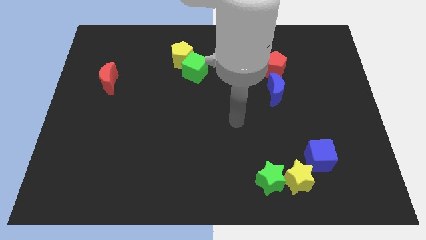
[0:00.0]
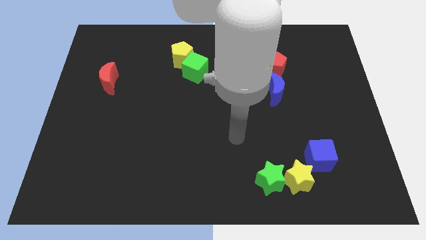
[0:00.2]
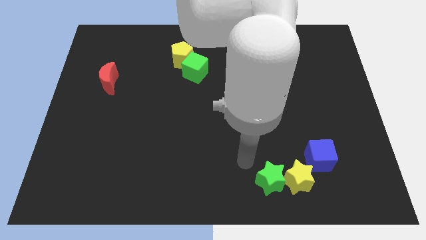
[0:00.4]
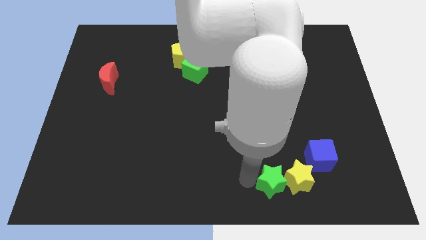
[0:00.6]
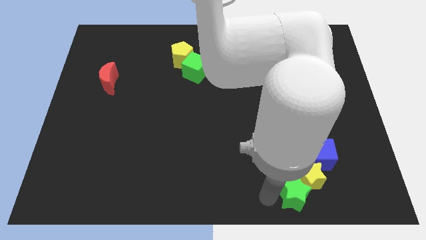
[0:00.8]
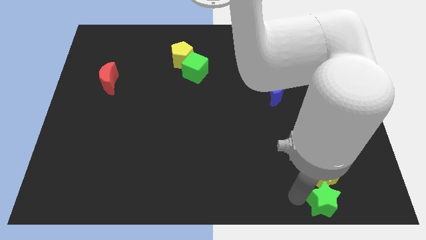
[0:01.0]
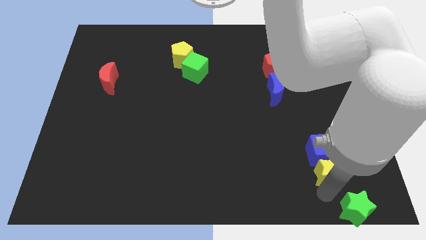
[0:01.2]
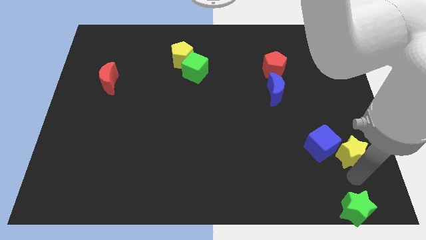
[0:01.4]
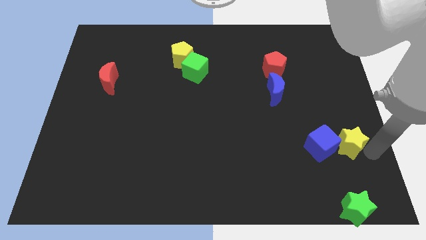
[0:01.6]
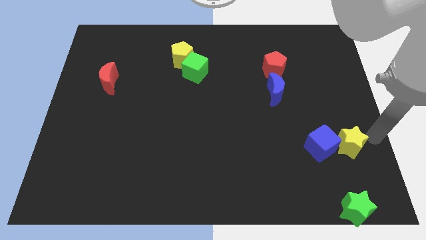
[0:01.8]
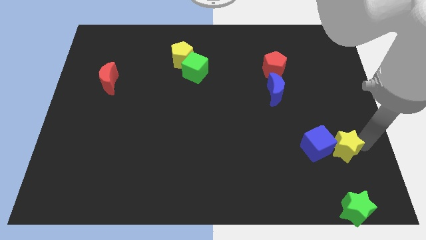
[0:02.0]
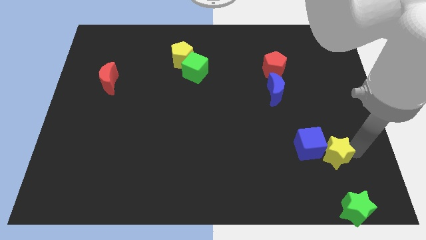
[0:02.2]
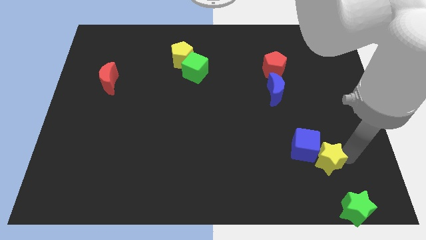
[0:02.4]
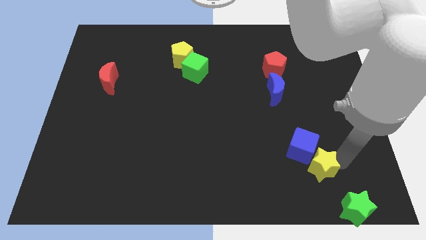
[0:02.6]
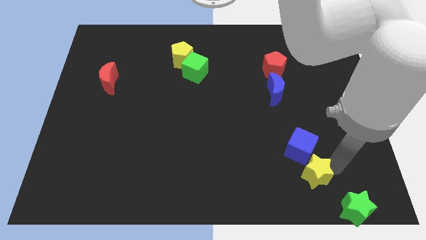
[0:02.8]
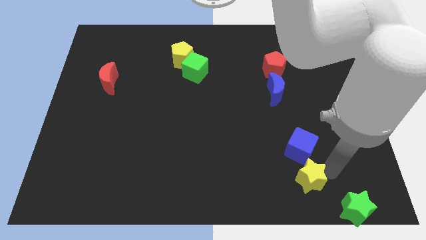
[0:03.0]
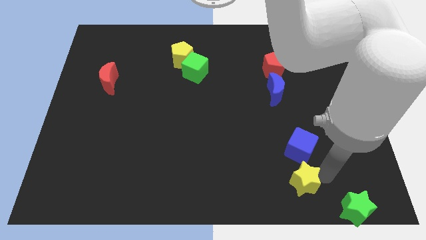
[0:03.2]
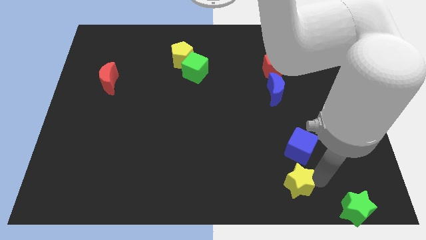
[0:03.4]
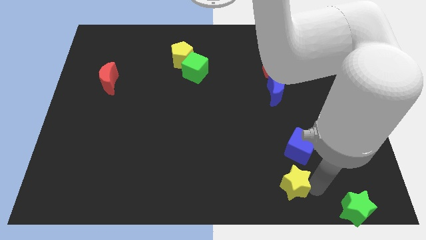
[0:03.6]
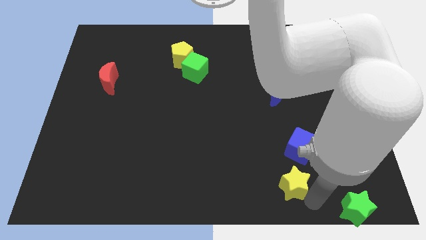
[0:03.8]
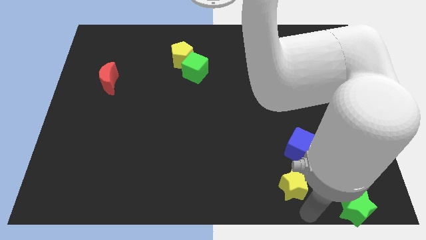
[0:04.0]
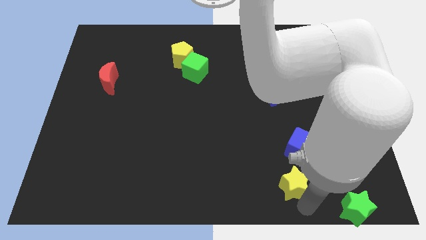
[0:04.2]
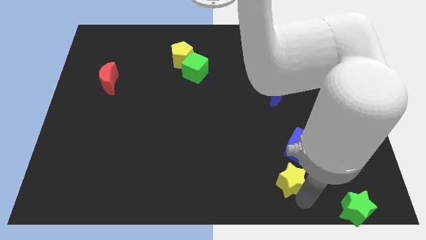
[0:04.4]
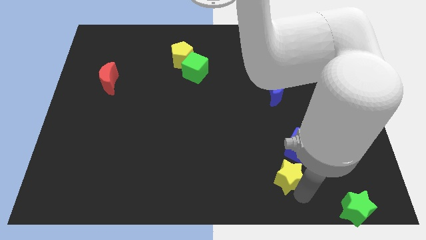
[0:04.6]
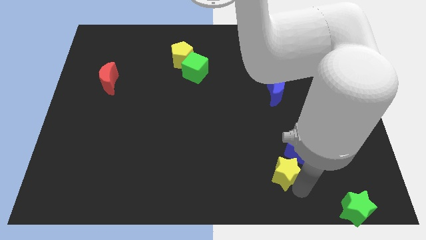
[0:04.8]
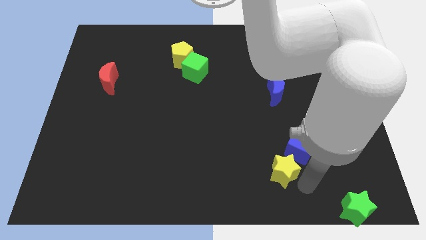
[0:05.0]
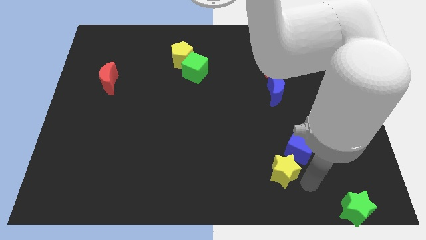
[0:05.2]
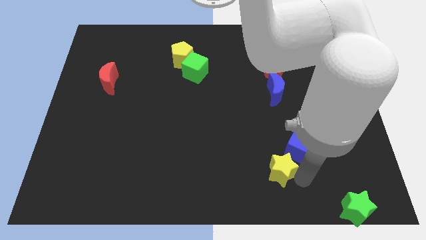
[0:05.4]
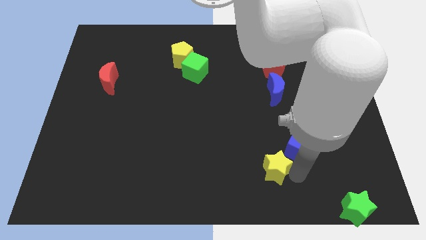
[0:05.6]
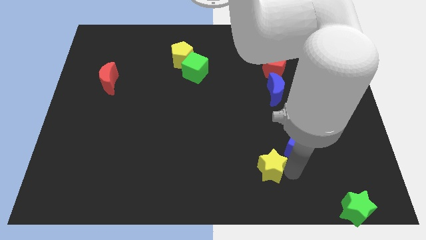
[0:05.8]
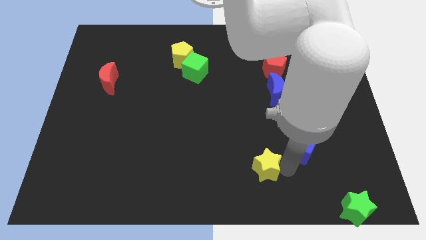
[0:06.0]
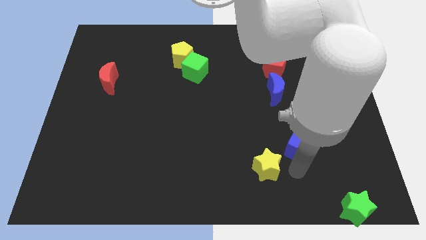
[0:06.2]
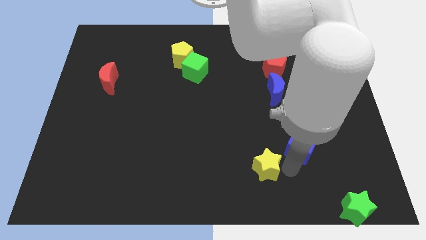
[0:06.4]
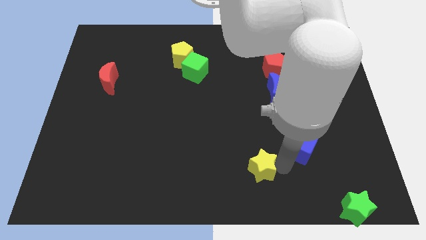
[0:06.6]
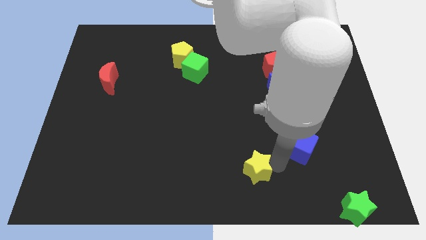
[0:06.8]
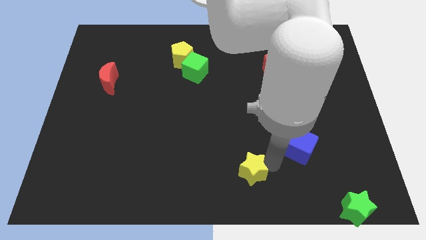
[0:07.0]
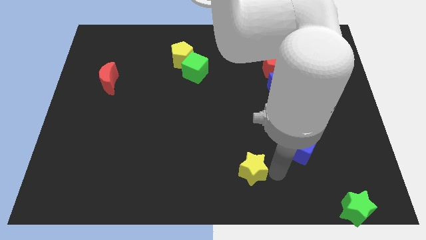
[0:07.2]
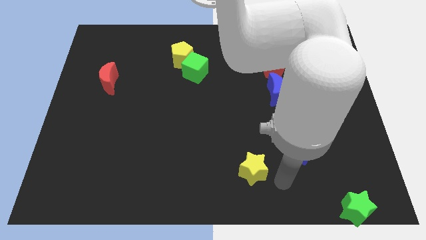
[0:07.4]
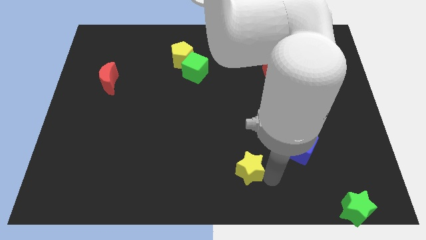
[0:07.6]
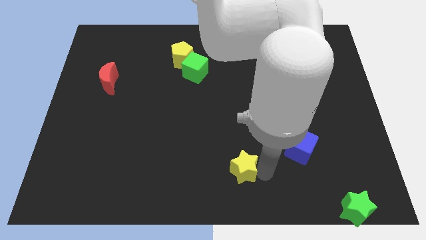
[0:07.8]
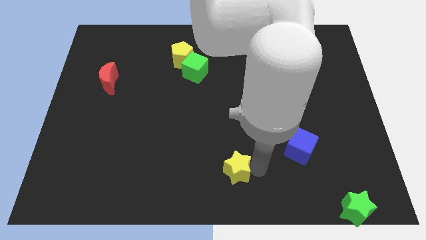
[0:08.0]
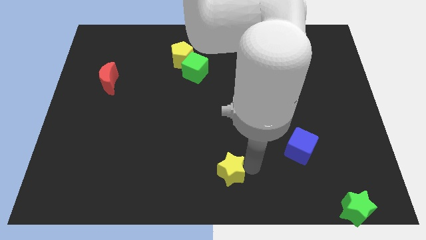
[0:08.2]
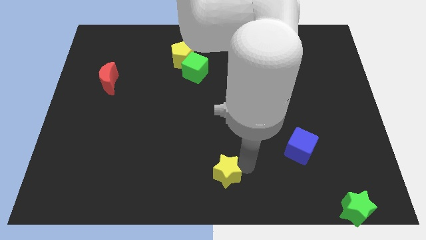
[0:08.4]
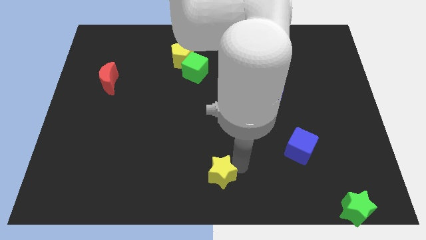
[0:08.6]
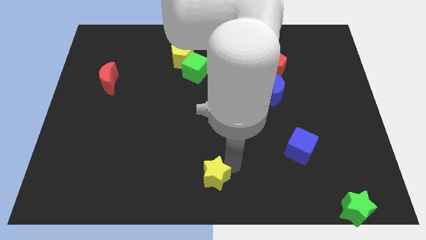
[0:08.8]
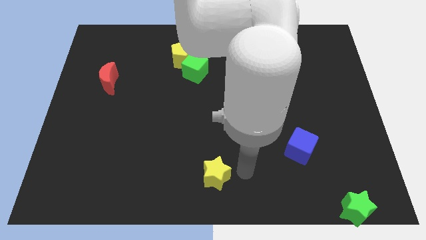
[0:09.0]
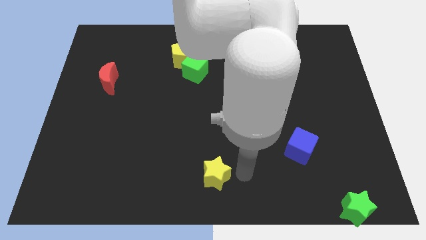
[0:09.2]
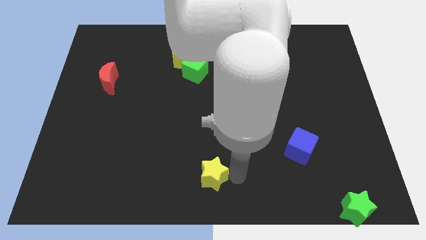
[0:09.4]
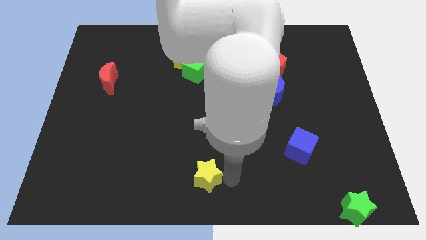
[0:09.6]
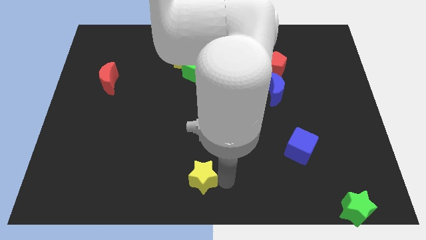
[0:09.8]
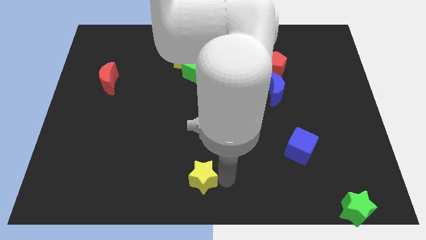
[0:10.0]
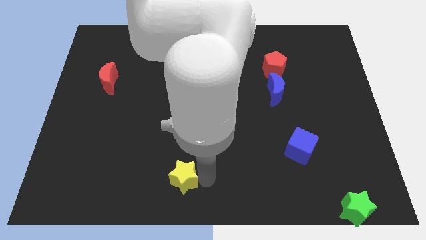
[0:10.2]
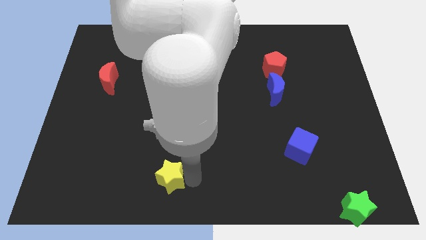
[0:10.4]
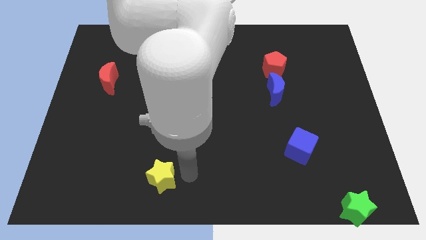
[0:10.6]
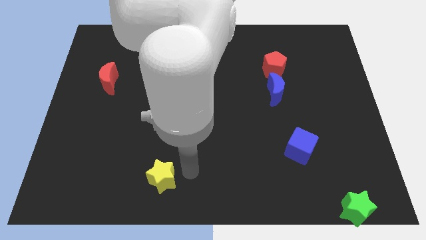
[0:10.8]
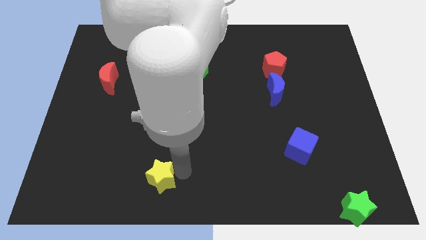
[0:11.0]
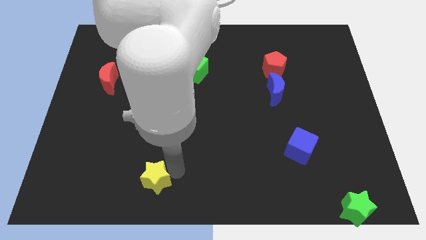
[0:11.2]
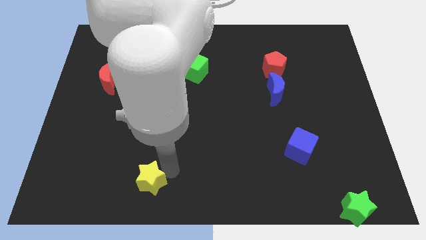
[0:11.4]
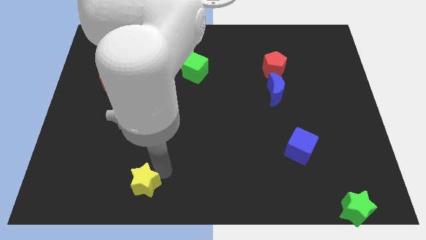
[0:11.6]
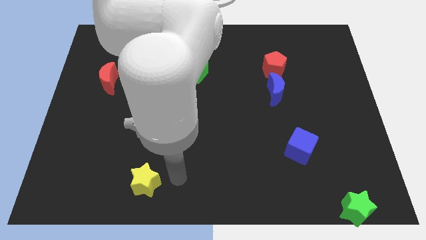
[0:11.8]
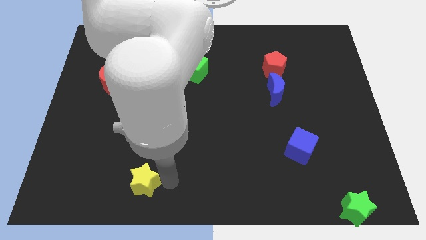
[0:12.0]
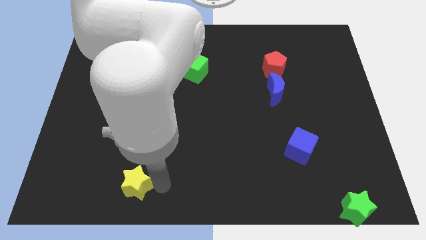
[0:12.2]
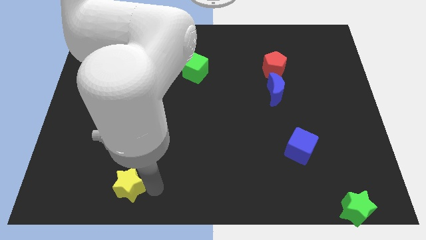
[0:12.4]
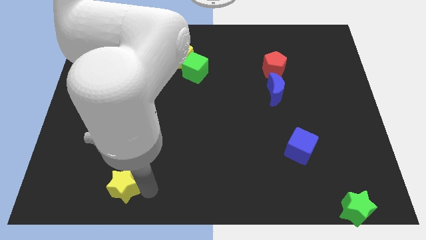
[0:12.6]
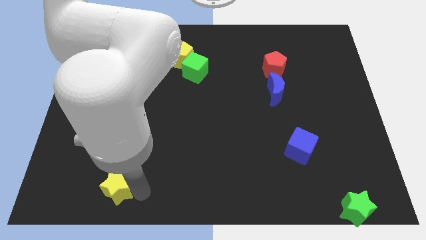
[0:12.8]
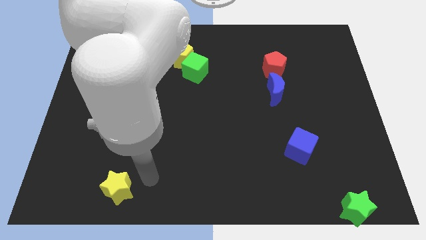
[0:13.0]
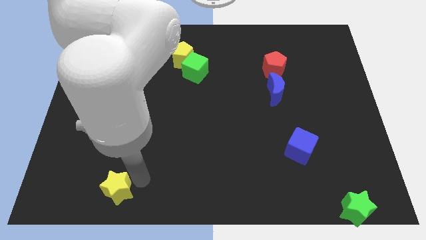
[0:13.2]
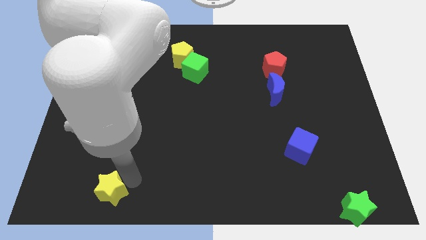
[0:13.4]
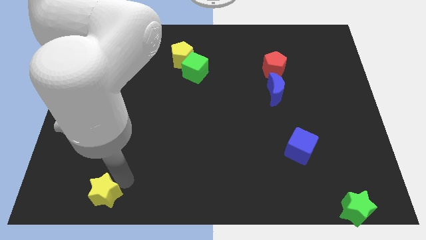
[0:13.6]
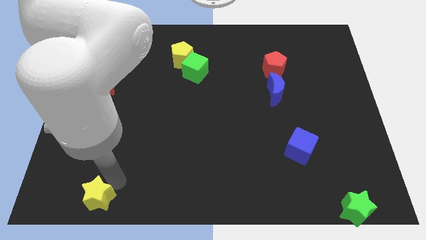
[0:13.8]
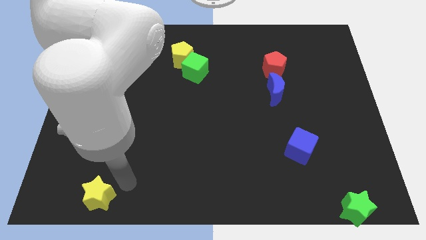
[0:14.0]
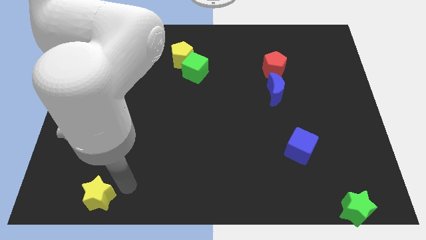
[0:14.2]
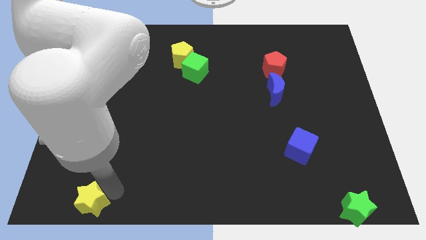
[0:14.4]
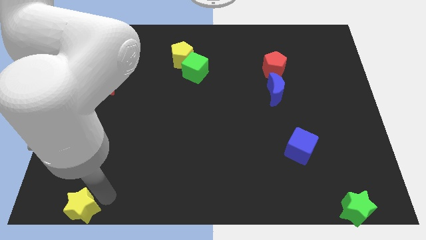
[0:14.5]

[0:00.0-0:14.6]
put the yellow star to the bottom left
